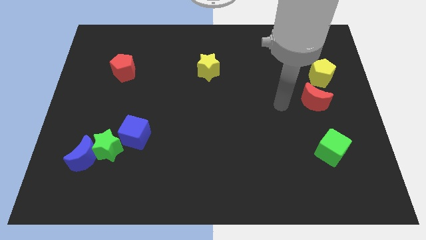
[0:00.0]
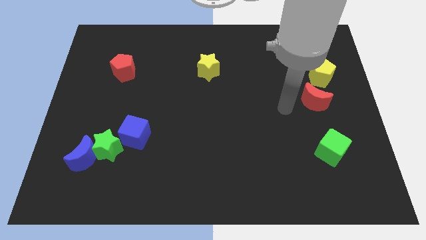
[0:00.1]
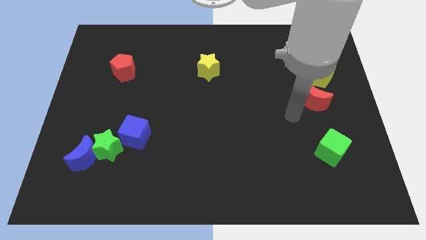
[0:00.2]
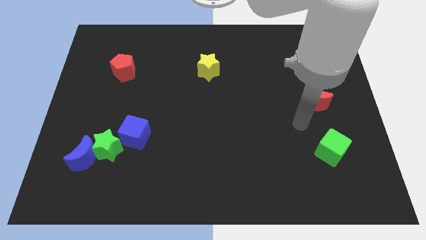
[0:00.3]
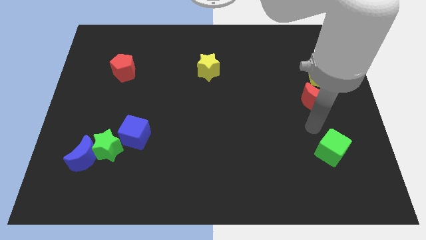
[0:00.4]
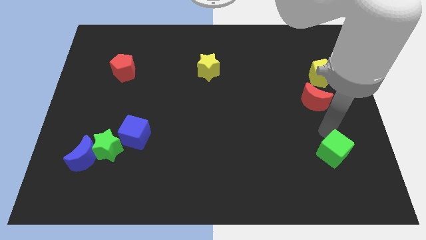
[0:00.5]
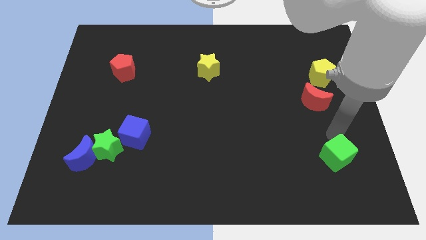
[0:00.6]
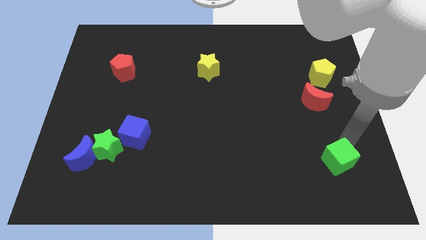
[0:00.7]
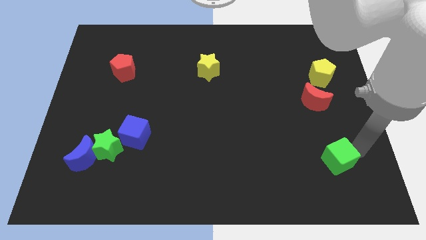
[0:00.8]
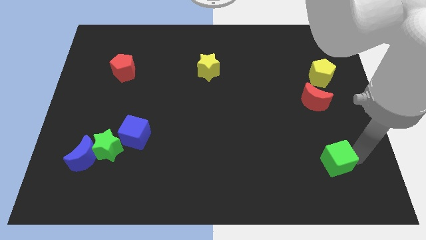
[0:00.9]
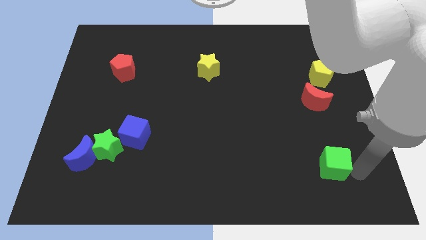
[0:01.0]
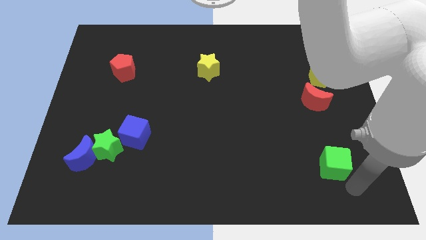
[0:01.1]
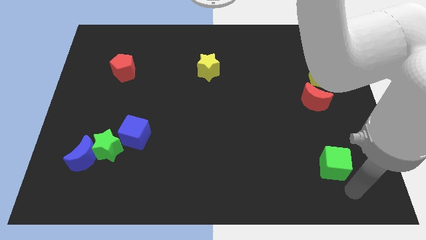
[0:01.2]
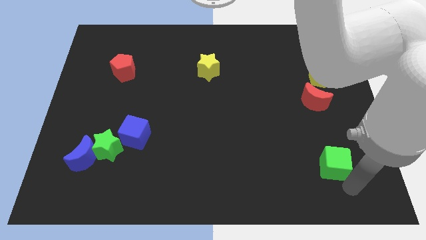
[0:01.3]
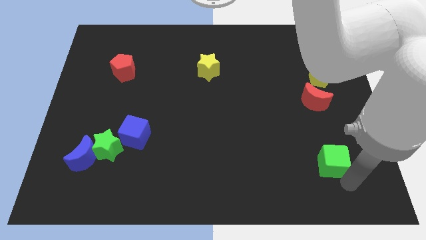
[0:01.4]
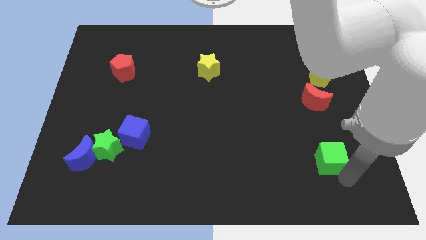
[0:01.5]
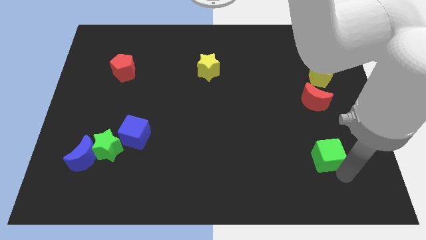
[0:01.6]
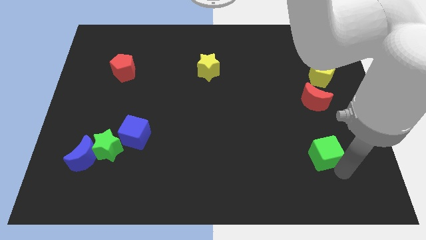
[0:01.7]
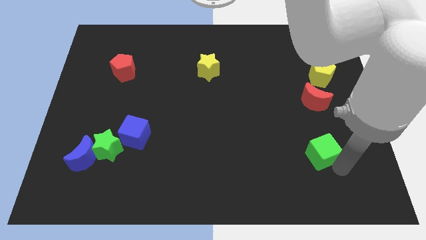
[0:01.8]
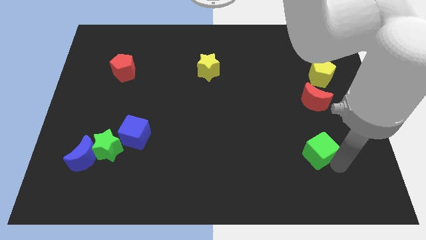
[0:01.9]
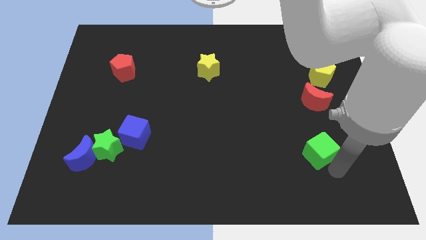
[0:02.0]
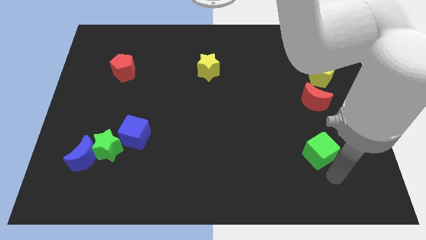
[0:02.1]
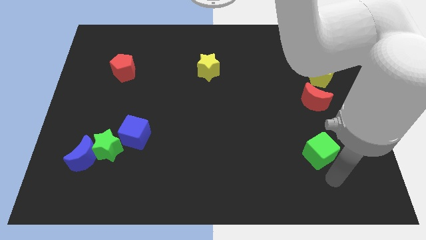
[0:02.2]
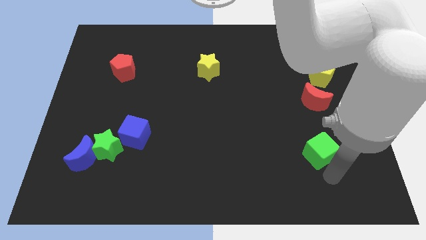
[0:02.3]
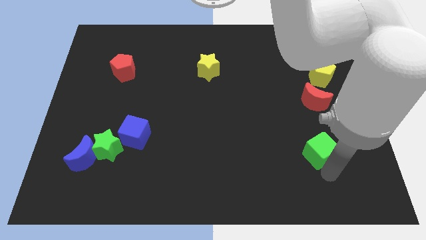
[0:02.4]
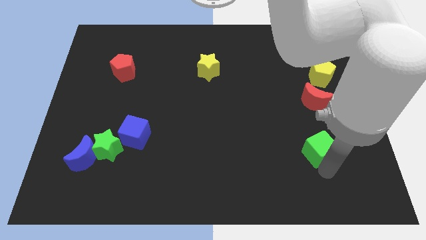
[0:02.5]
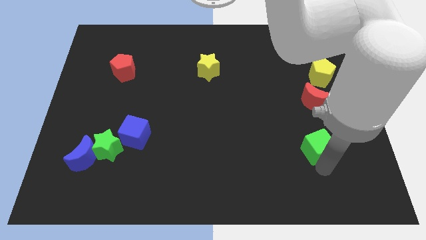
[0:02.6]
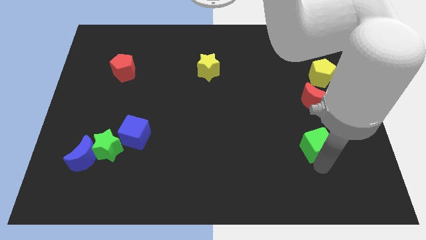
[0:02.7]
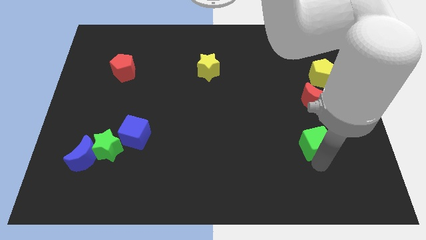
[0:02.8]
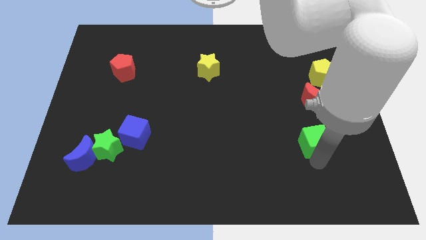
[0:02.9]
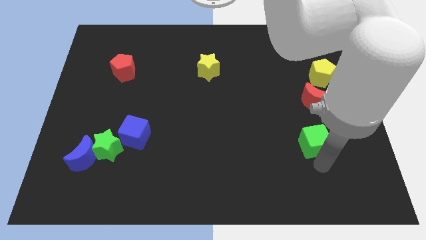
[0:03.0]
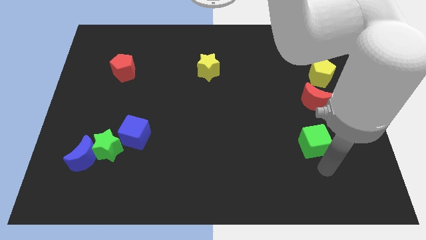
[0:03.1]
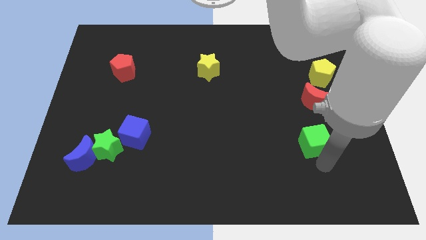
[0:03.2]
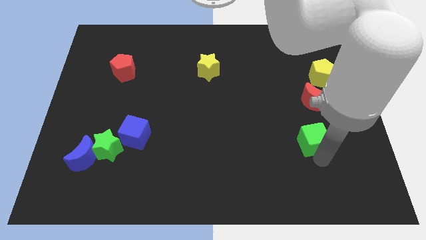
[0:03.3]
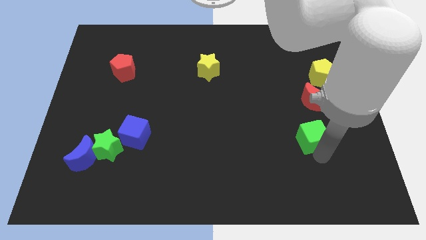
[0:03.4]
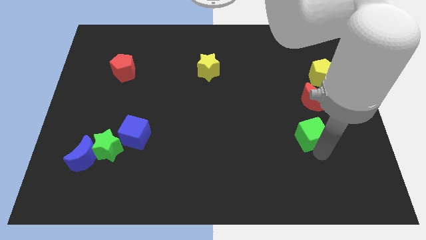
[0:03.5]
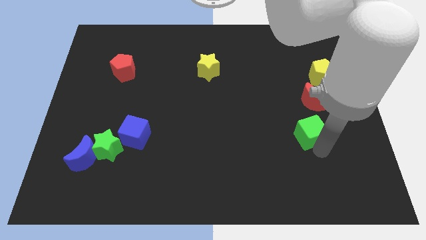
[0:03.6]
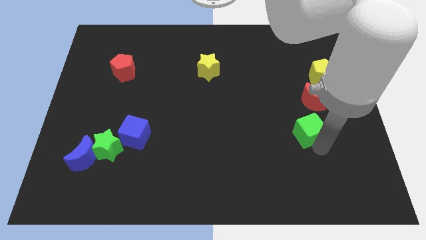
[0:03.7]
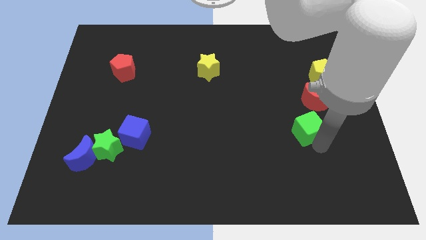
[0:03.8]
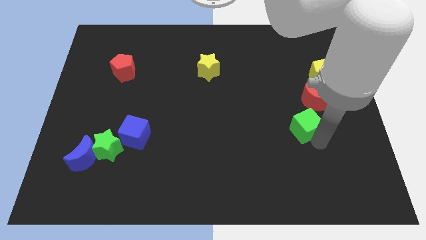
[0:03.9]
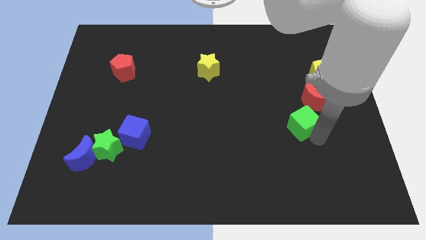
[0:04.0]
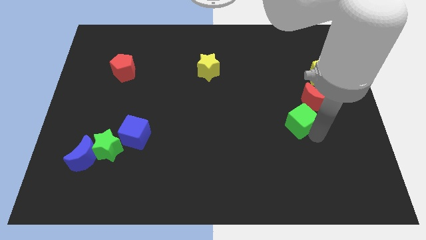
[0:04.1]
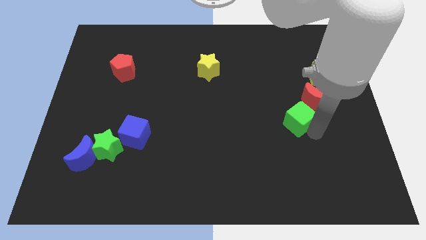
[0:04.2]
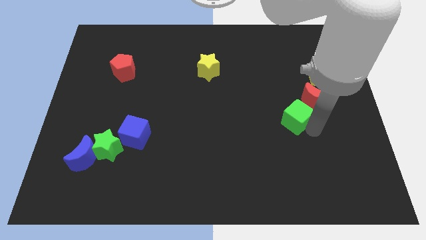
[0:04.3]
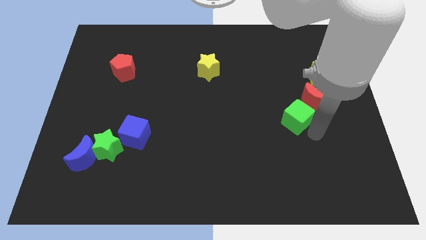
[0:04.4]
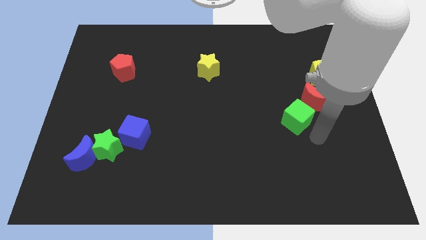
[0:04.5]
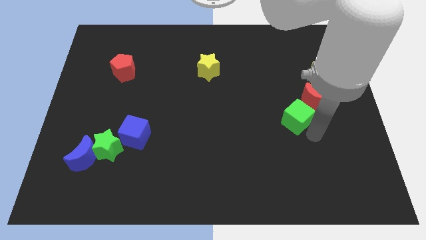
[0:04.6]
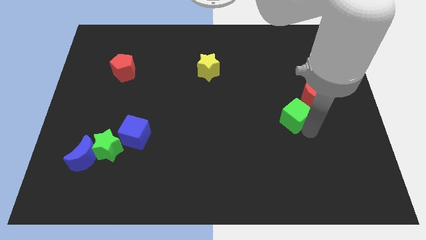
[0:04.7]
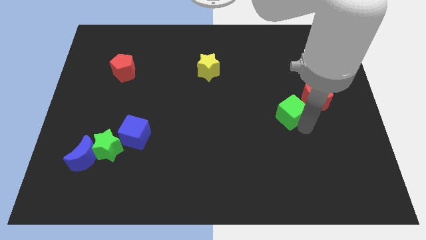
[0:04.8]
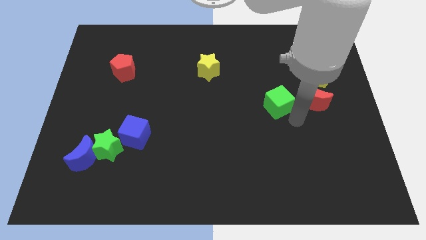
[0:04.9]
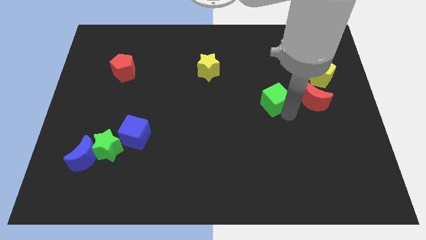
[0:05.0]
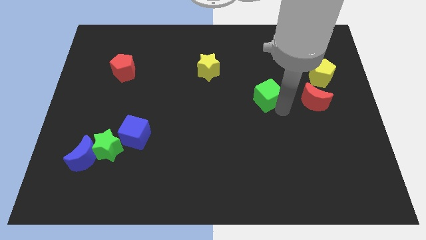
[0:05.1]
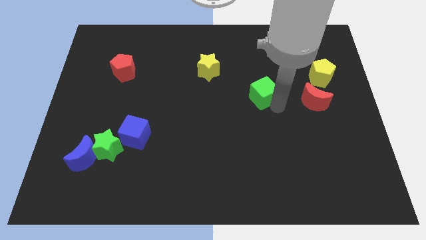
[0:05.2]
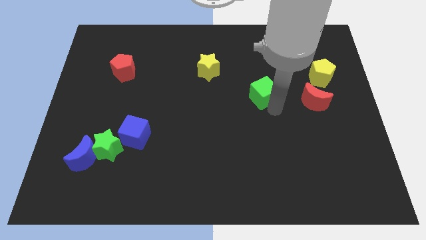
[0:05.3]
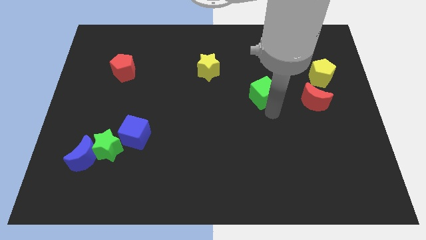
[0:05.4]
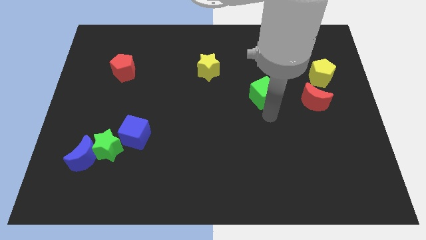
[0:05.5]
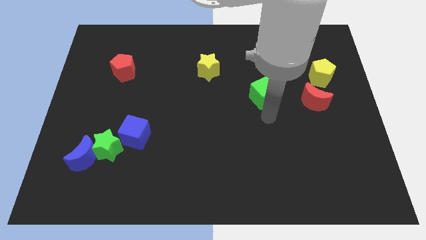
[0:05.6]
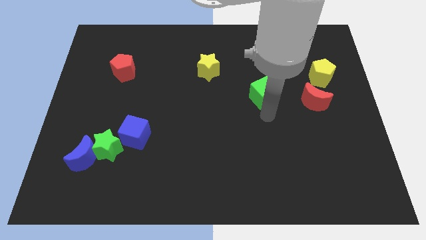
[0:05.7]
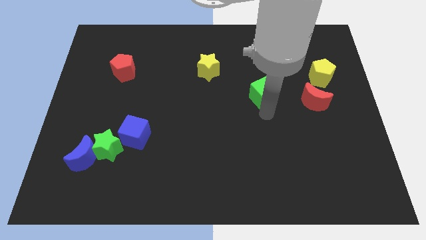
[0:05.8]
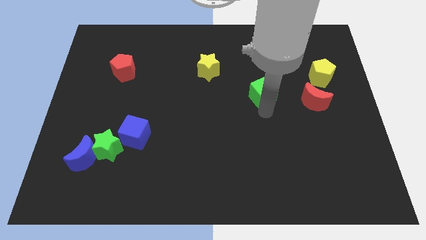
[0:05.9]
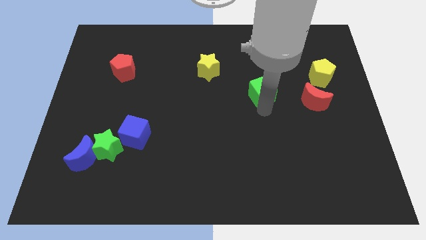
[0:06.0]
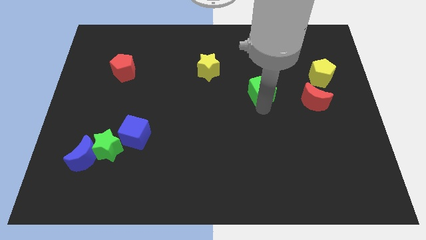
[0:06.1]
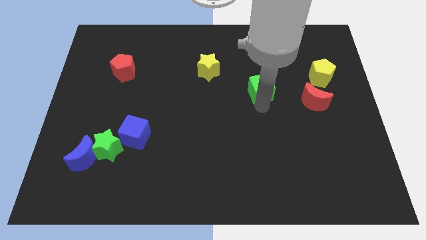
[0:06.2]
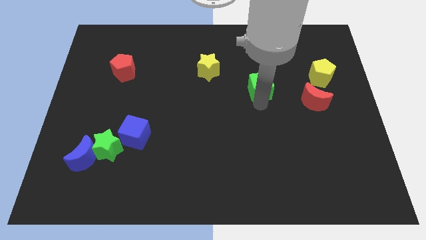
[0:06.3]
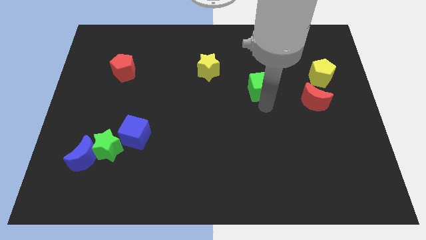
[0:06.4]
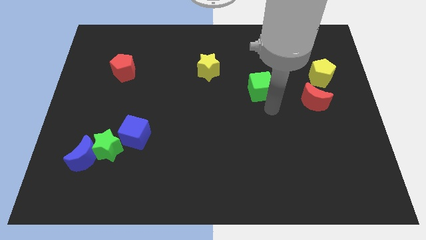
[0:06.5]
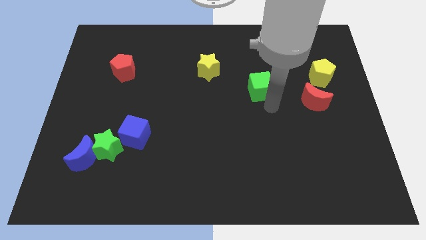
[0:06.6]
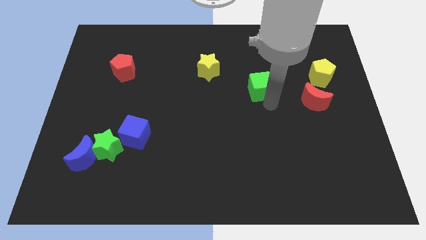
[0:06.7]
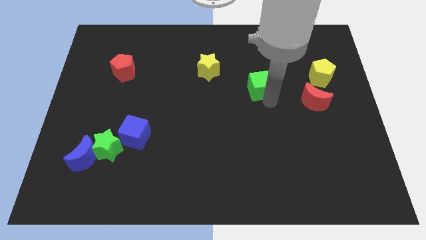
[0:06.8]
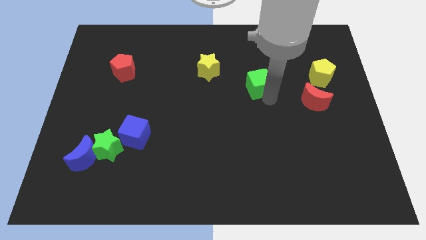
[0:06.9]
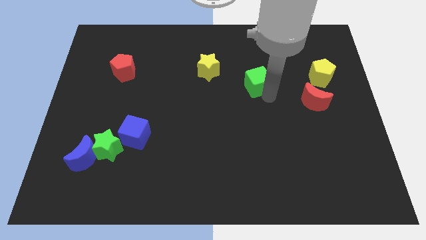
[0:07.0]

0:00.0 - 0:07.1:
slide the green cube to the right side of the yellow star
